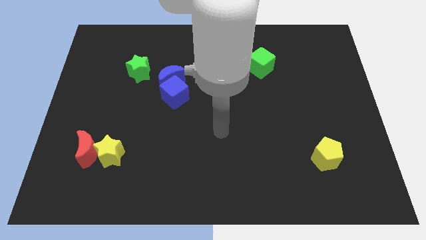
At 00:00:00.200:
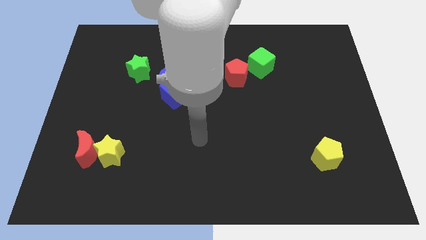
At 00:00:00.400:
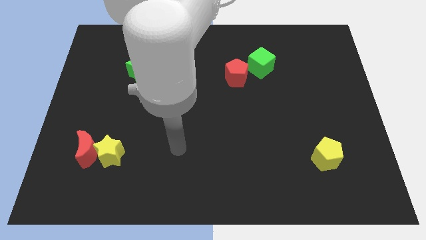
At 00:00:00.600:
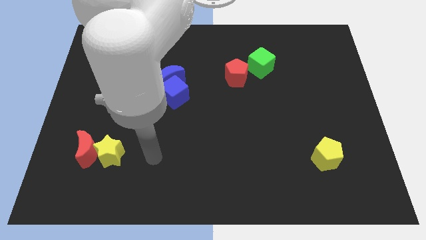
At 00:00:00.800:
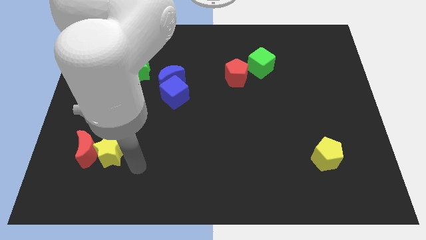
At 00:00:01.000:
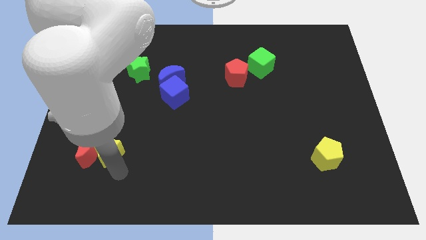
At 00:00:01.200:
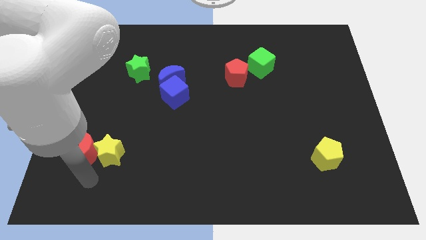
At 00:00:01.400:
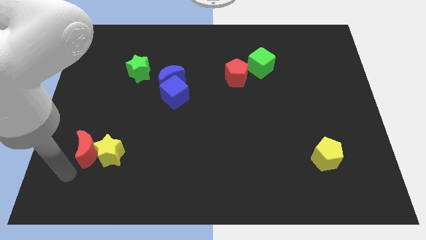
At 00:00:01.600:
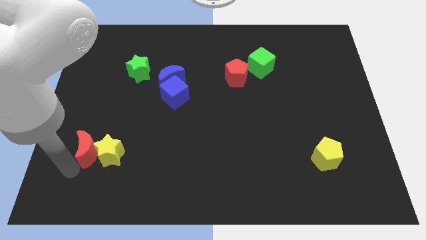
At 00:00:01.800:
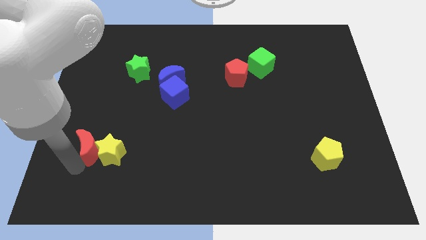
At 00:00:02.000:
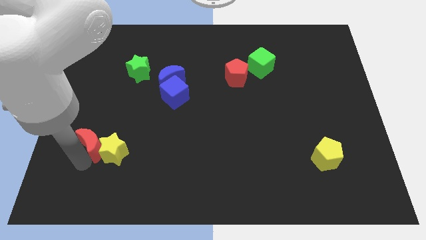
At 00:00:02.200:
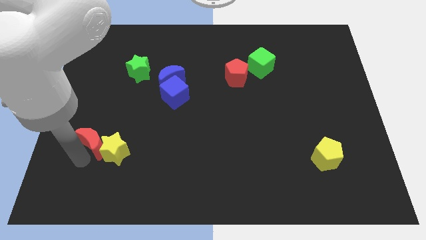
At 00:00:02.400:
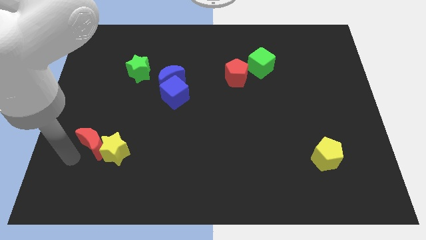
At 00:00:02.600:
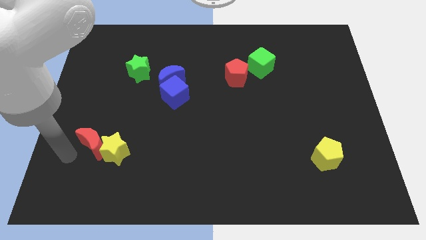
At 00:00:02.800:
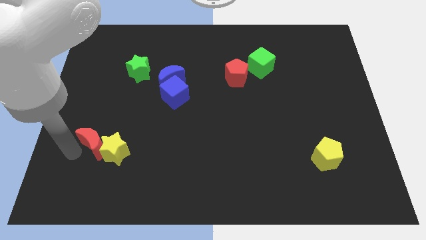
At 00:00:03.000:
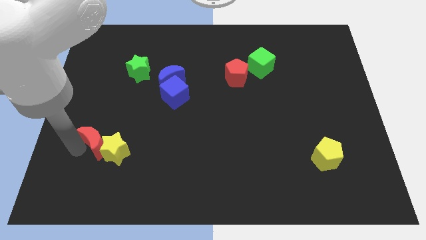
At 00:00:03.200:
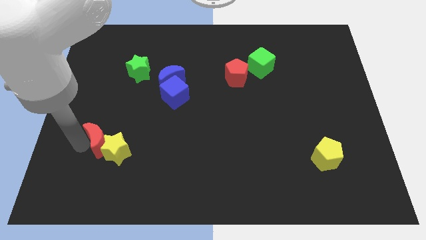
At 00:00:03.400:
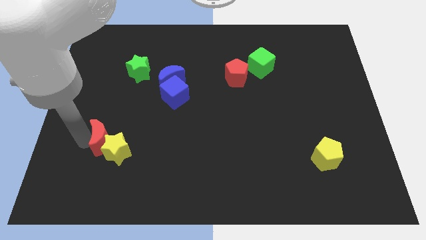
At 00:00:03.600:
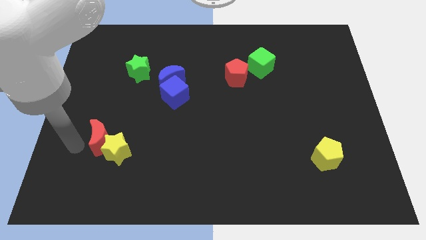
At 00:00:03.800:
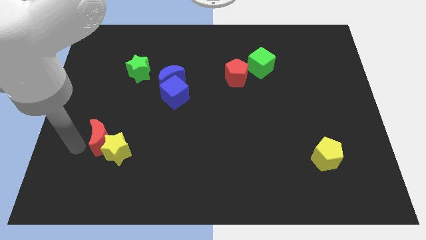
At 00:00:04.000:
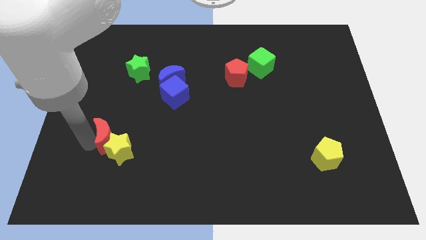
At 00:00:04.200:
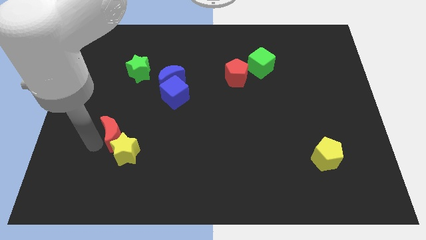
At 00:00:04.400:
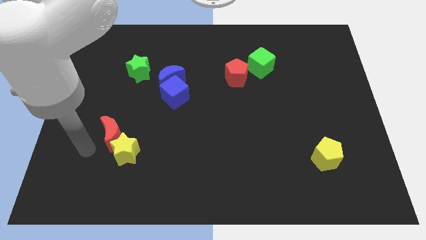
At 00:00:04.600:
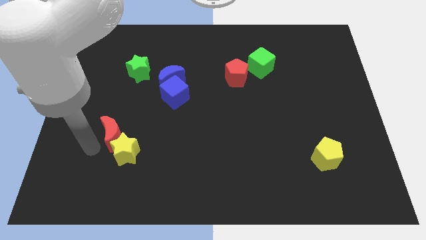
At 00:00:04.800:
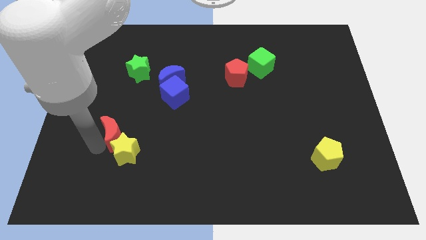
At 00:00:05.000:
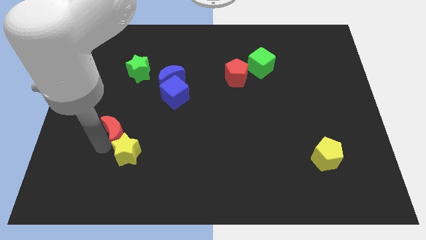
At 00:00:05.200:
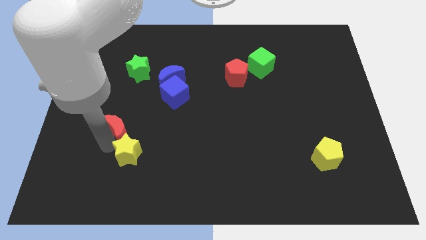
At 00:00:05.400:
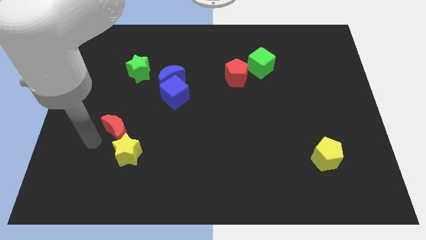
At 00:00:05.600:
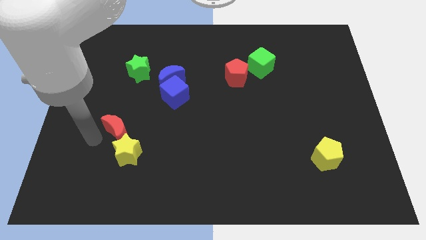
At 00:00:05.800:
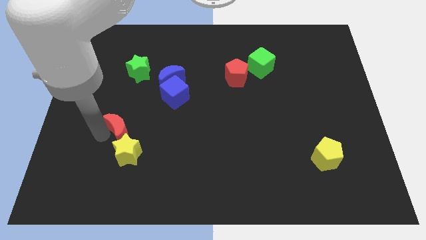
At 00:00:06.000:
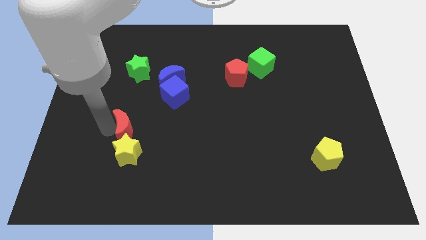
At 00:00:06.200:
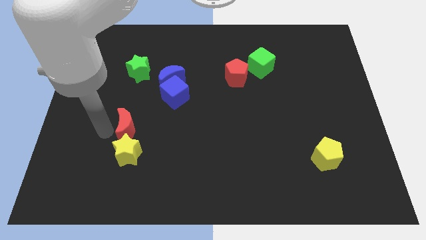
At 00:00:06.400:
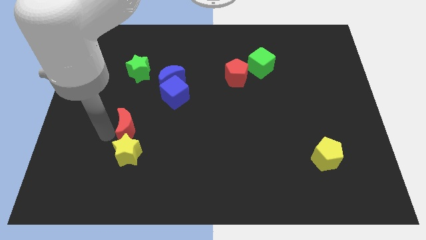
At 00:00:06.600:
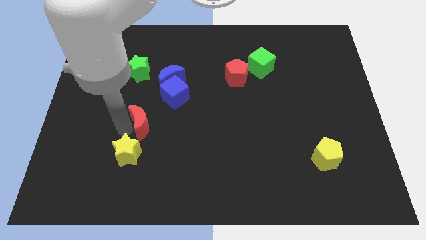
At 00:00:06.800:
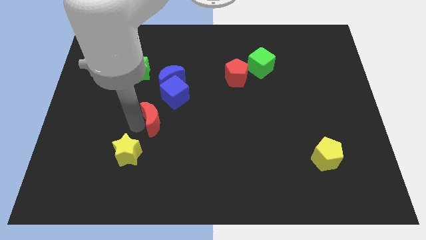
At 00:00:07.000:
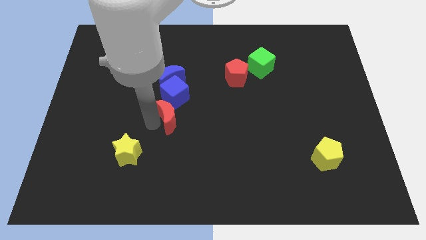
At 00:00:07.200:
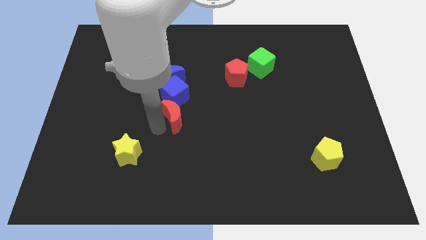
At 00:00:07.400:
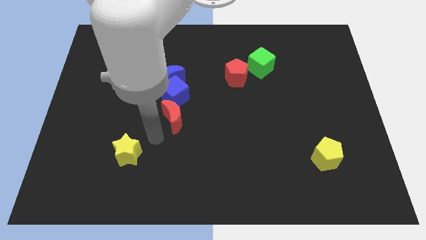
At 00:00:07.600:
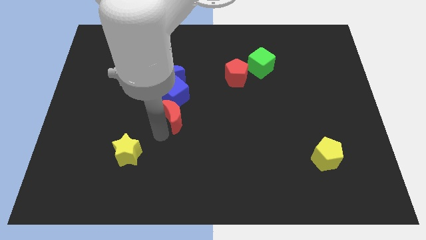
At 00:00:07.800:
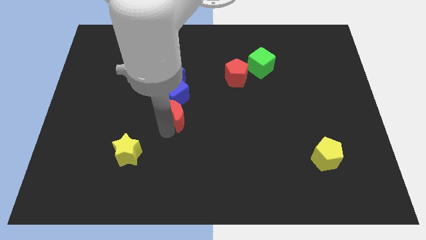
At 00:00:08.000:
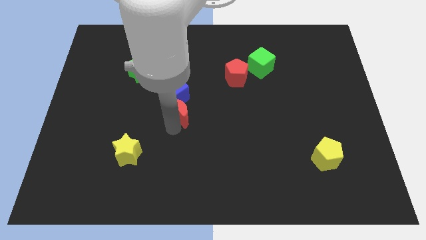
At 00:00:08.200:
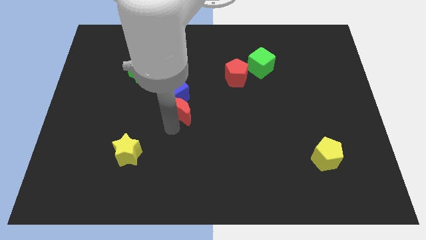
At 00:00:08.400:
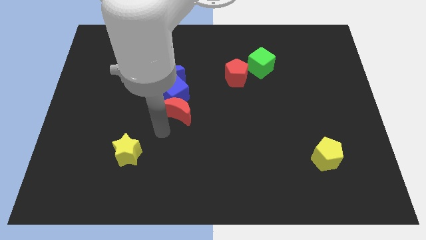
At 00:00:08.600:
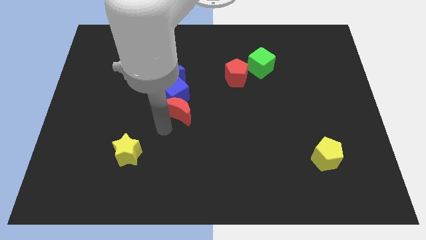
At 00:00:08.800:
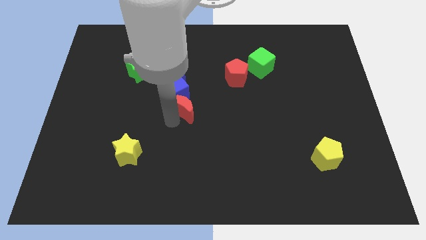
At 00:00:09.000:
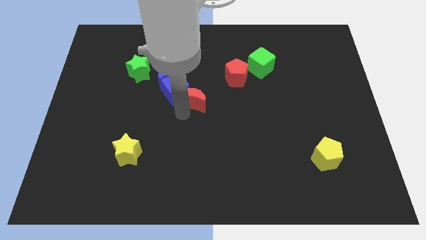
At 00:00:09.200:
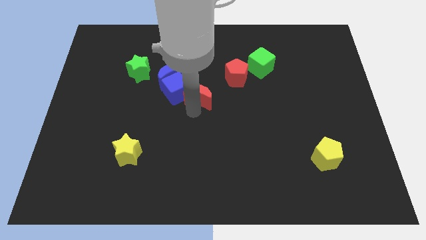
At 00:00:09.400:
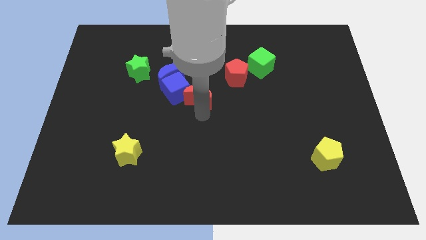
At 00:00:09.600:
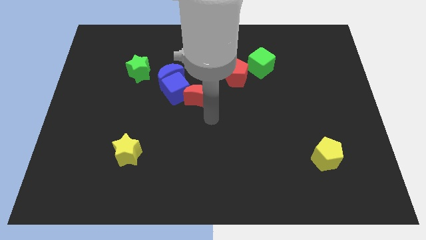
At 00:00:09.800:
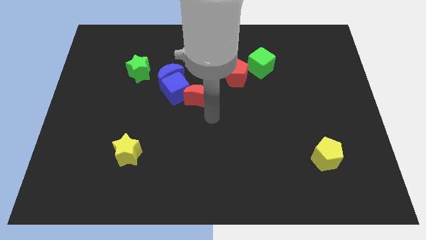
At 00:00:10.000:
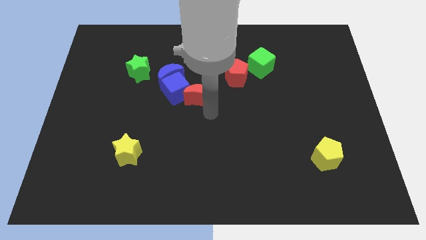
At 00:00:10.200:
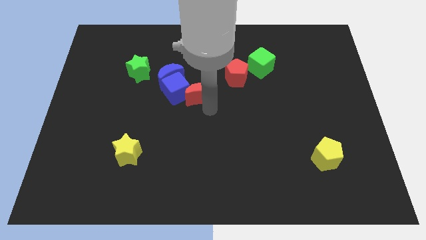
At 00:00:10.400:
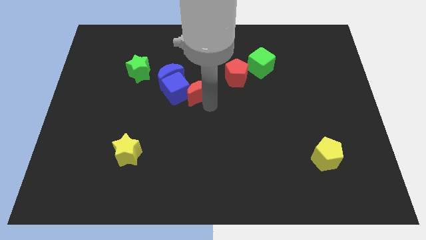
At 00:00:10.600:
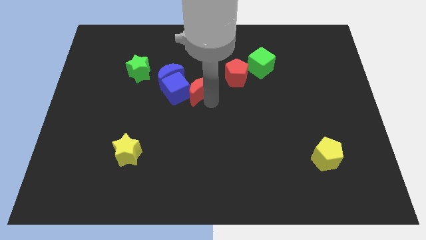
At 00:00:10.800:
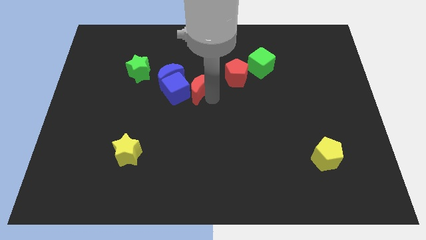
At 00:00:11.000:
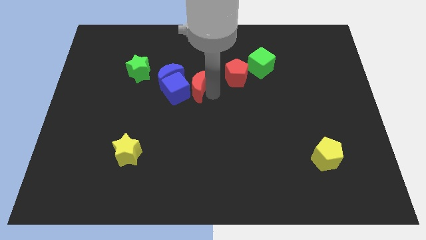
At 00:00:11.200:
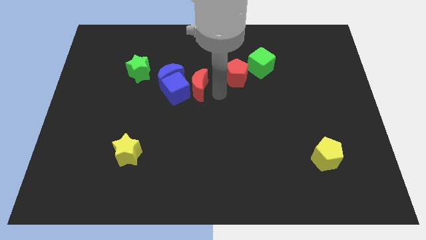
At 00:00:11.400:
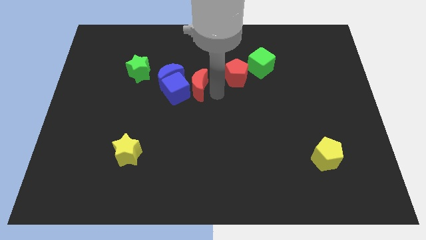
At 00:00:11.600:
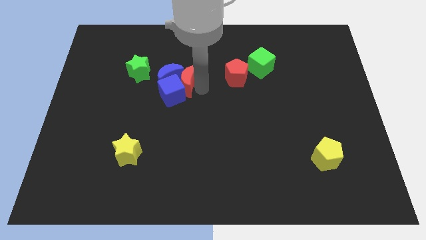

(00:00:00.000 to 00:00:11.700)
slide the red moon next to the blue moon
